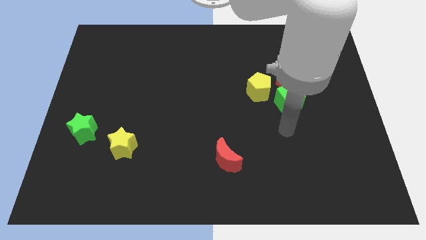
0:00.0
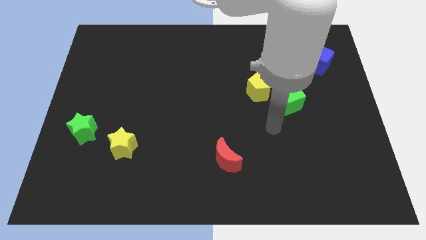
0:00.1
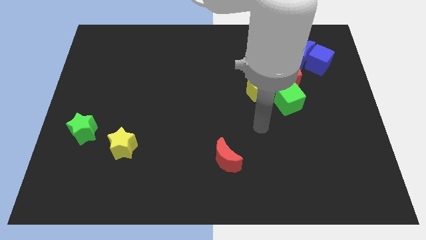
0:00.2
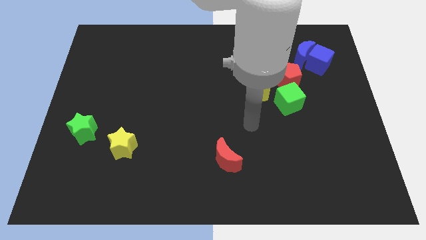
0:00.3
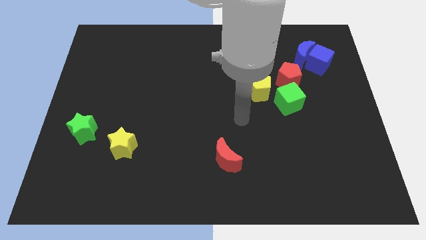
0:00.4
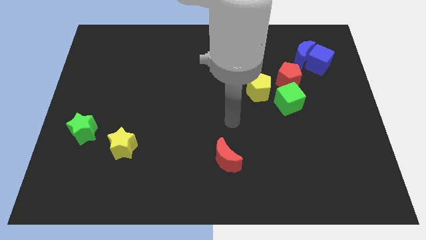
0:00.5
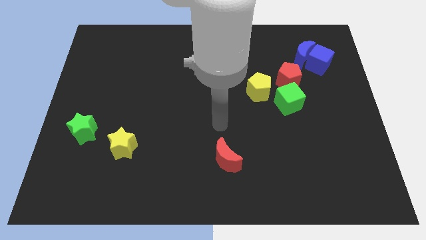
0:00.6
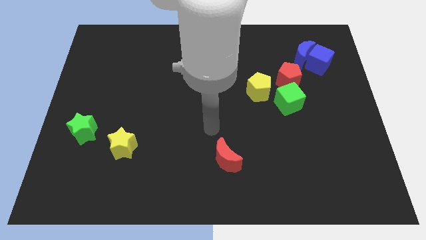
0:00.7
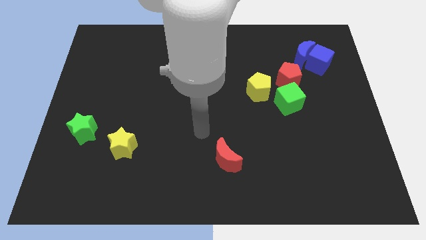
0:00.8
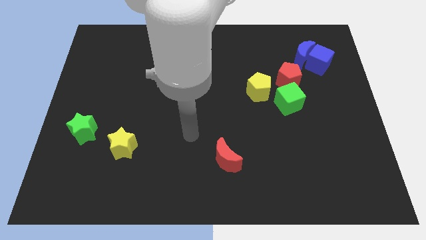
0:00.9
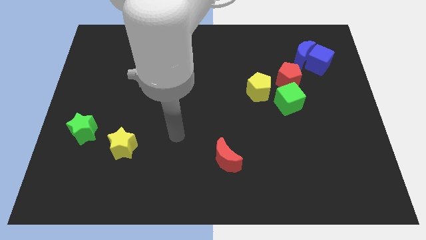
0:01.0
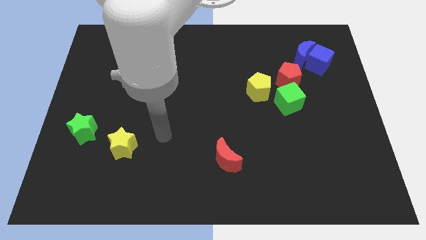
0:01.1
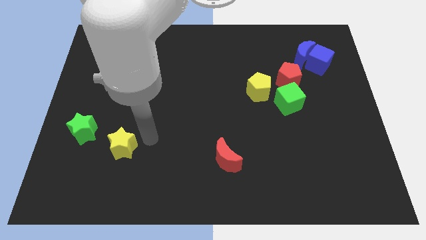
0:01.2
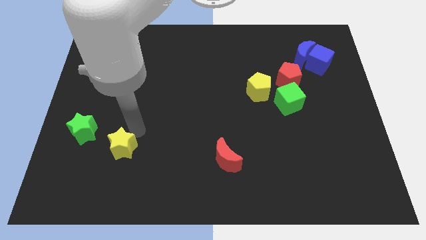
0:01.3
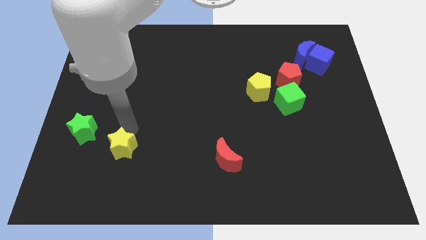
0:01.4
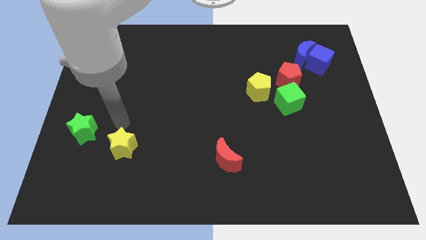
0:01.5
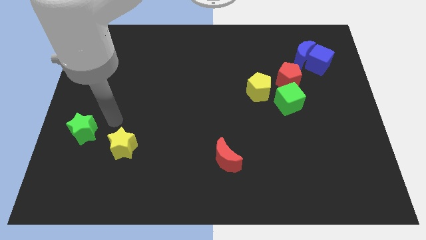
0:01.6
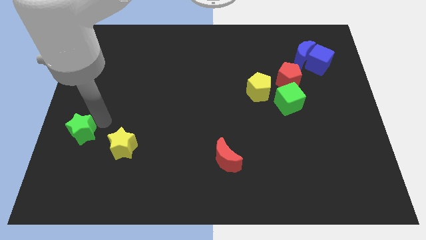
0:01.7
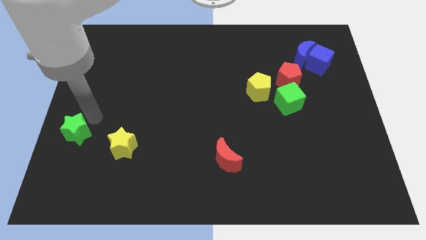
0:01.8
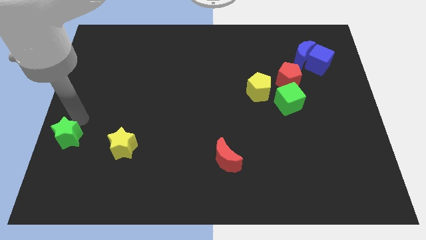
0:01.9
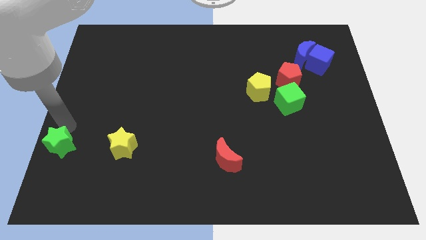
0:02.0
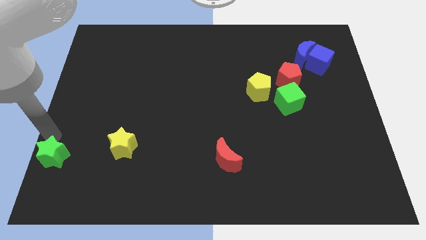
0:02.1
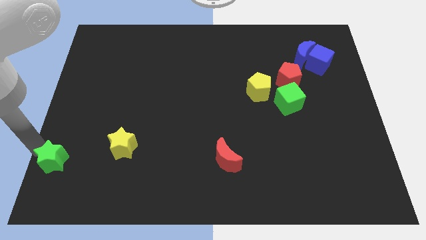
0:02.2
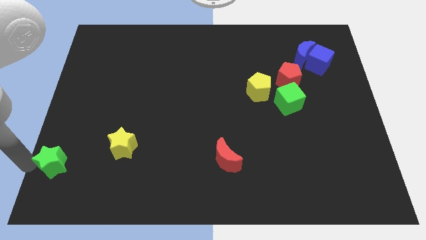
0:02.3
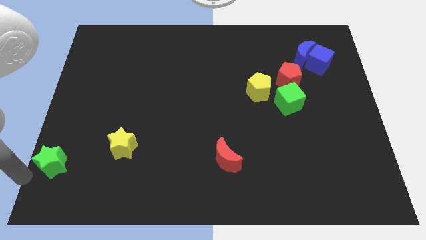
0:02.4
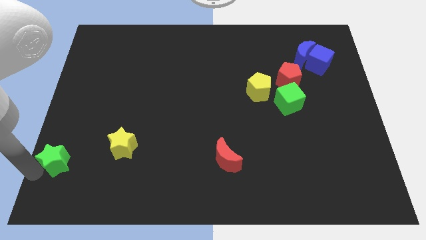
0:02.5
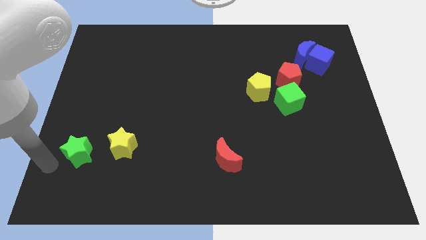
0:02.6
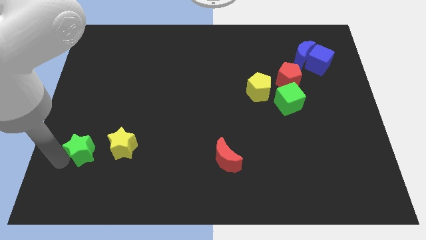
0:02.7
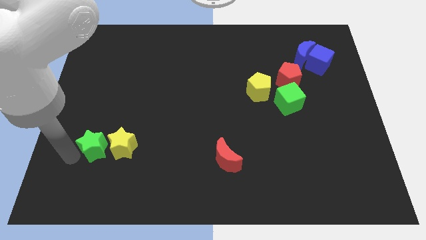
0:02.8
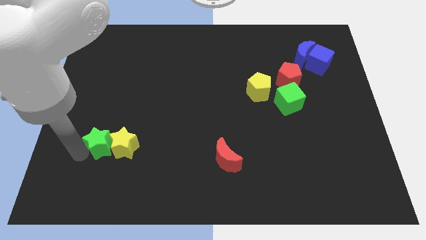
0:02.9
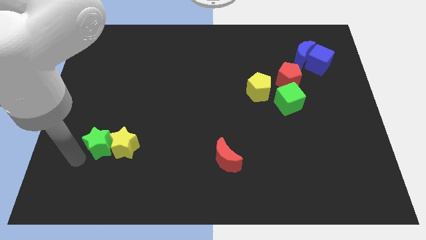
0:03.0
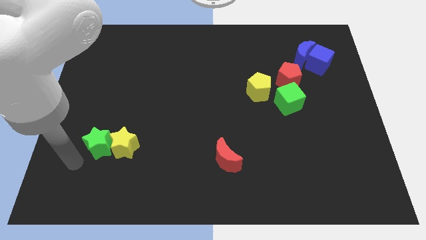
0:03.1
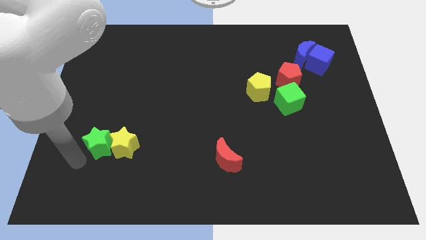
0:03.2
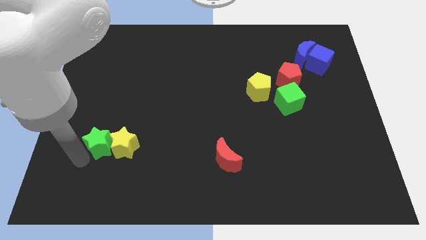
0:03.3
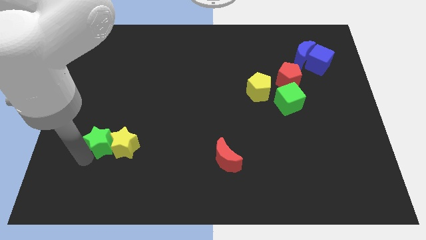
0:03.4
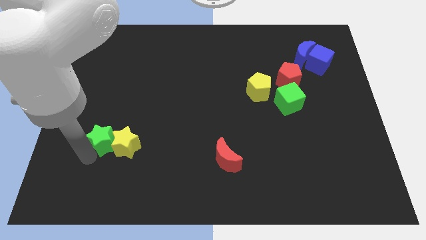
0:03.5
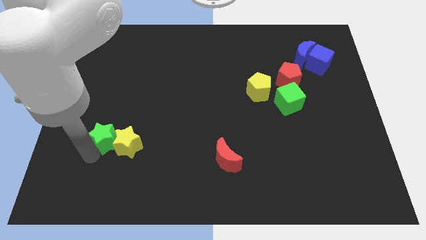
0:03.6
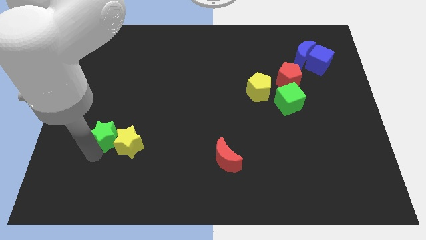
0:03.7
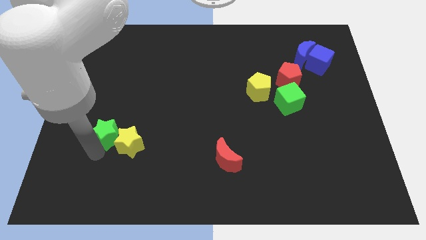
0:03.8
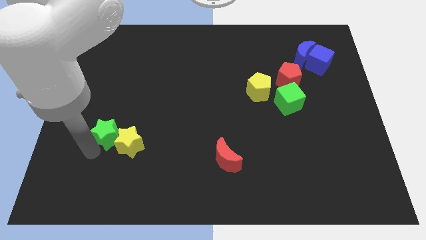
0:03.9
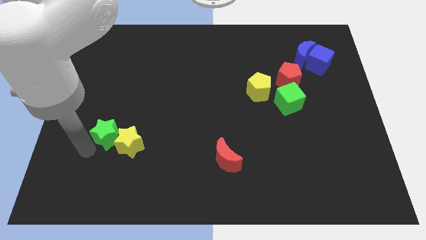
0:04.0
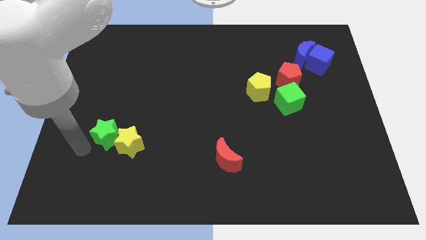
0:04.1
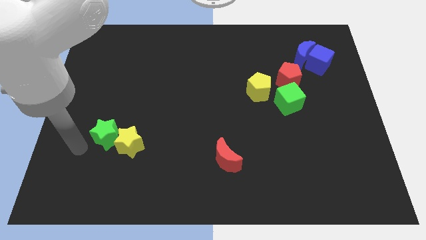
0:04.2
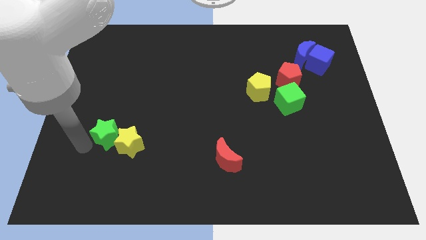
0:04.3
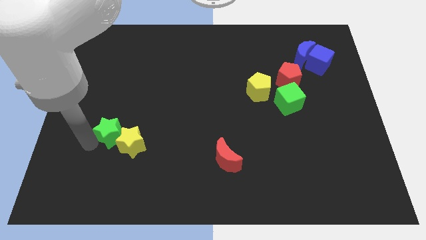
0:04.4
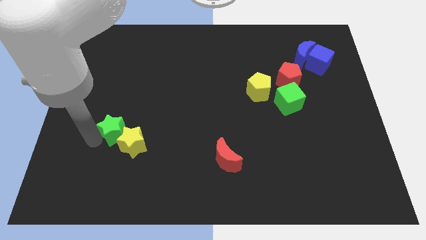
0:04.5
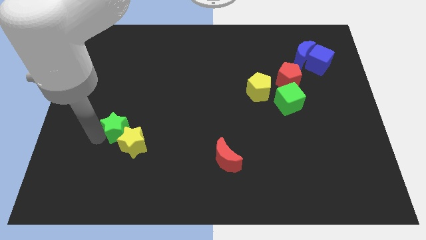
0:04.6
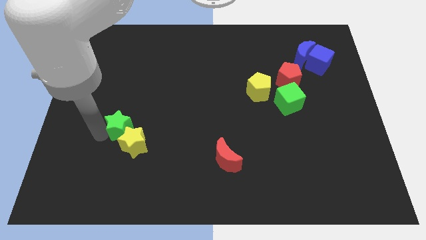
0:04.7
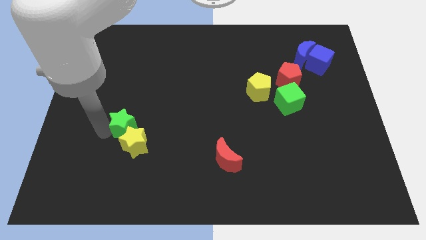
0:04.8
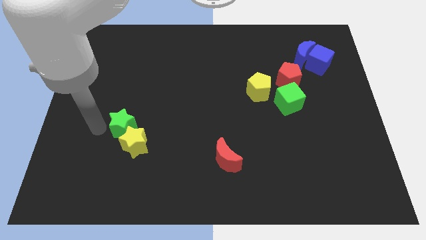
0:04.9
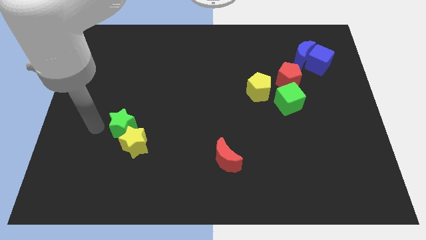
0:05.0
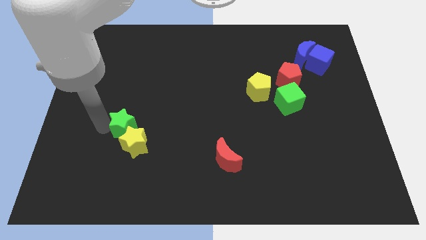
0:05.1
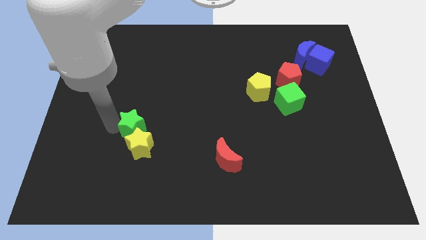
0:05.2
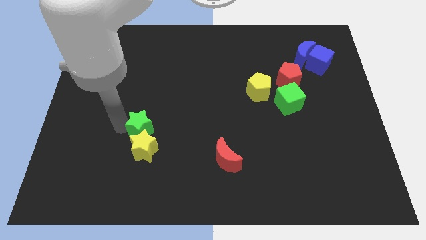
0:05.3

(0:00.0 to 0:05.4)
slide the green star diagonally up and to the right of the yellow star
